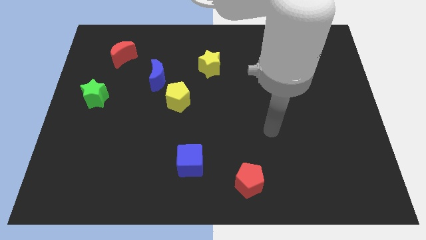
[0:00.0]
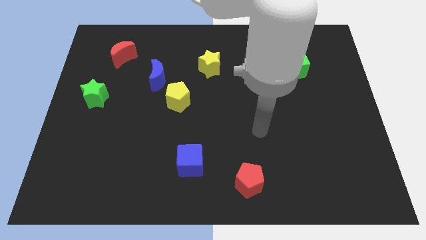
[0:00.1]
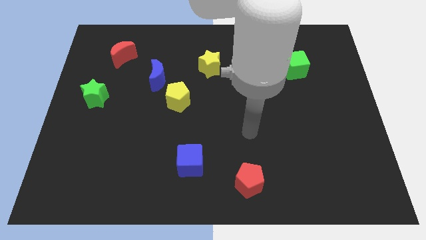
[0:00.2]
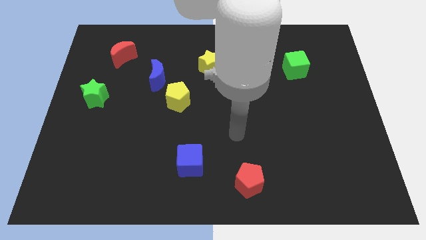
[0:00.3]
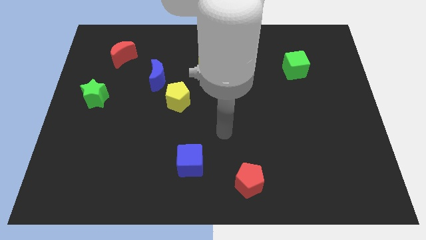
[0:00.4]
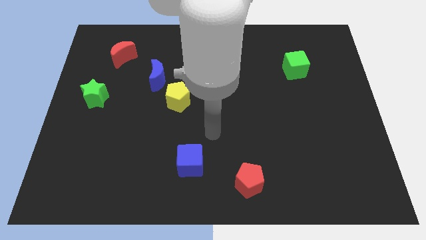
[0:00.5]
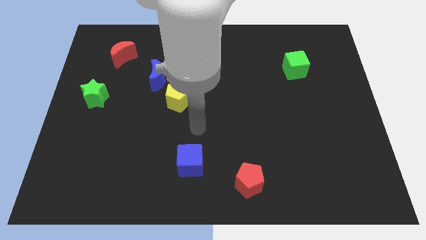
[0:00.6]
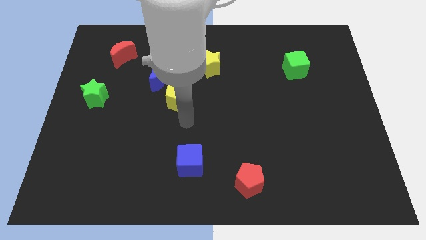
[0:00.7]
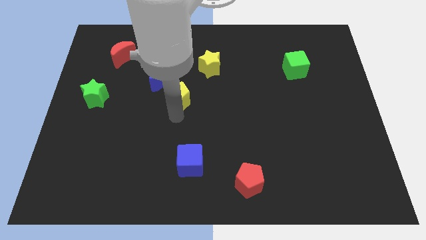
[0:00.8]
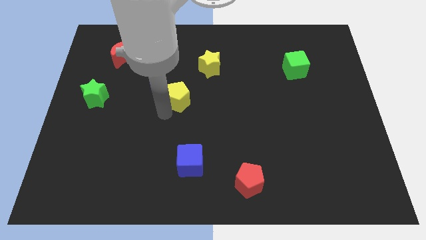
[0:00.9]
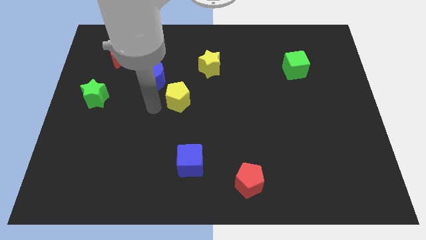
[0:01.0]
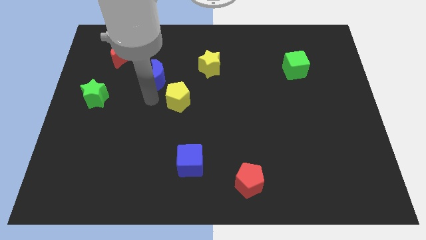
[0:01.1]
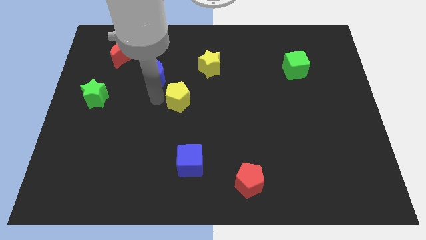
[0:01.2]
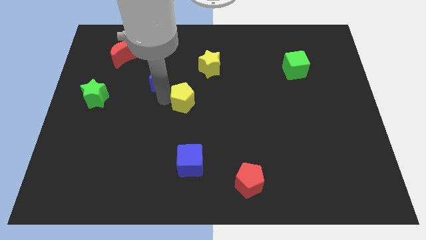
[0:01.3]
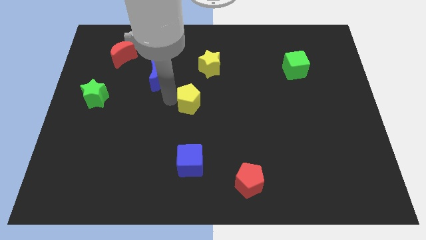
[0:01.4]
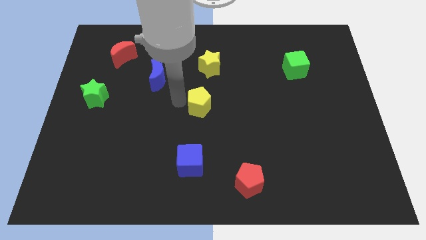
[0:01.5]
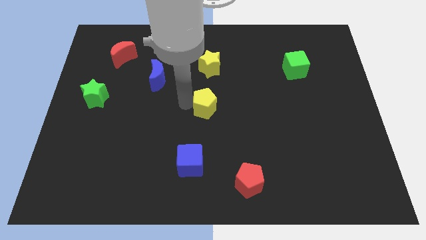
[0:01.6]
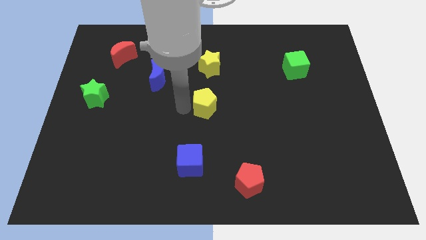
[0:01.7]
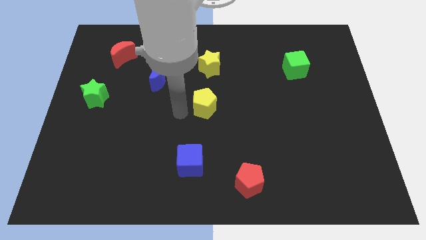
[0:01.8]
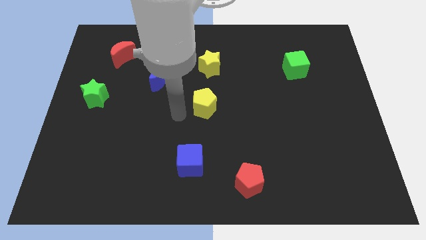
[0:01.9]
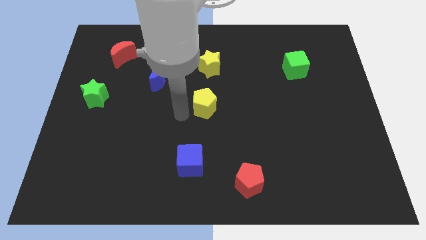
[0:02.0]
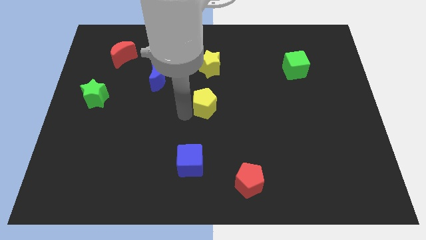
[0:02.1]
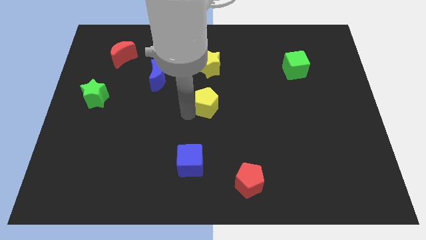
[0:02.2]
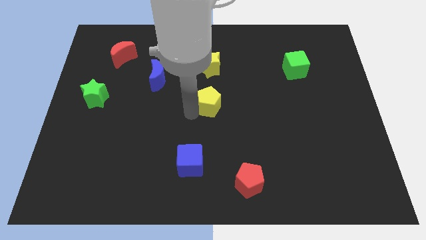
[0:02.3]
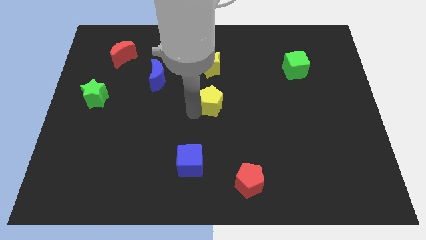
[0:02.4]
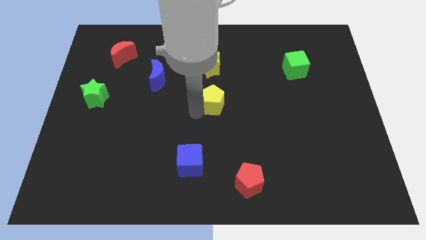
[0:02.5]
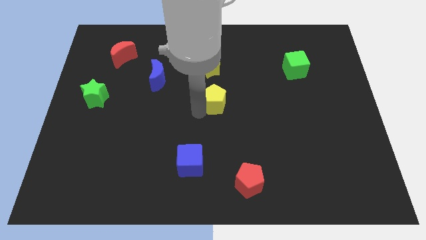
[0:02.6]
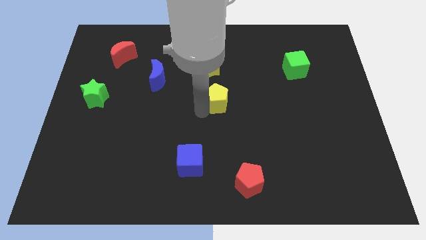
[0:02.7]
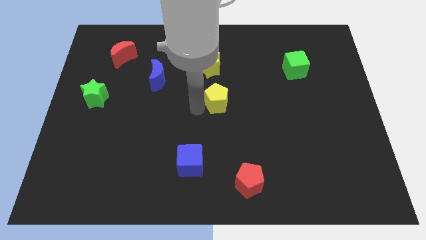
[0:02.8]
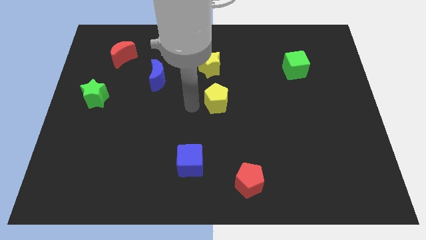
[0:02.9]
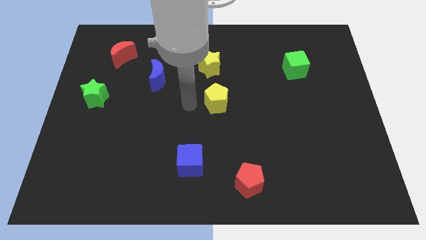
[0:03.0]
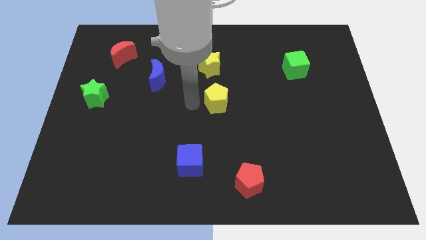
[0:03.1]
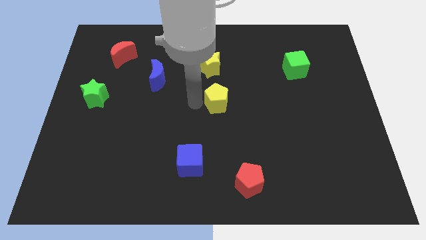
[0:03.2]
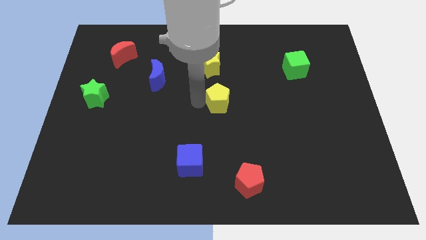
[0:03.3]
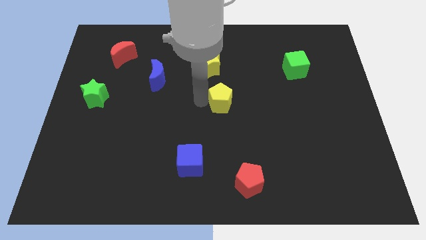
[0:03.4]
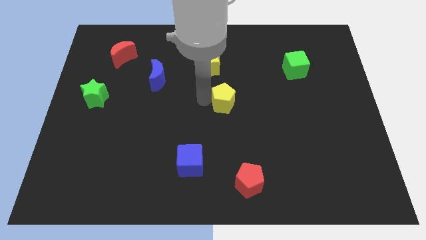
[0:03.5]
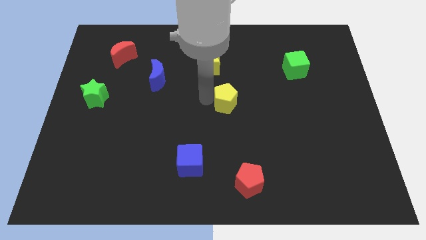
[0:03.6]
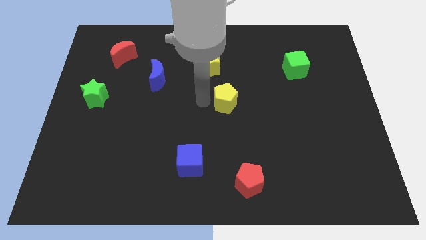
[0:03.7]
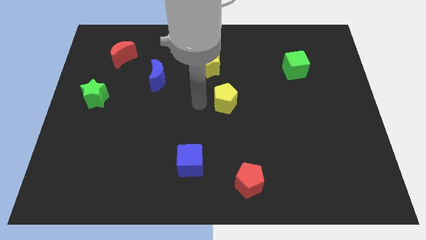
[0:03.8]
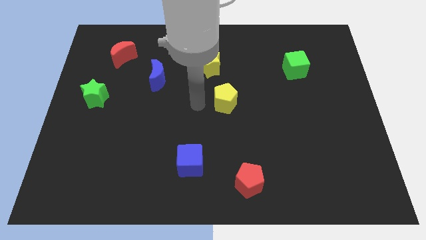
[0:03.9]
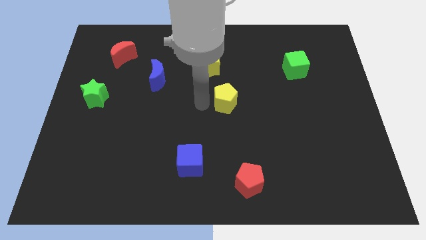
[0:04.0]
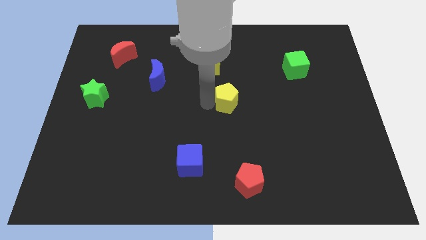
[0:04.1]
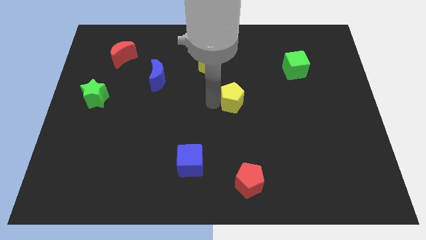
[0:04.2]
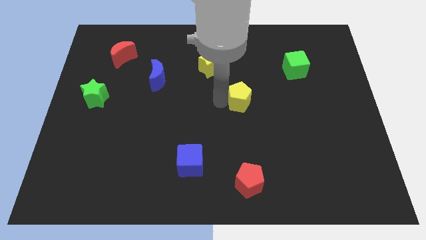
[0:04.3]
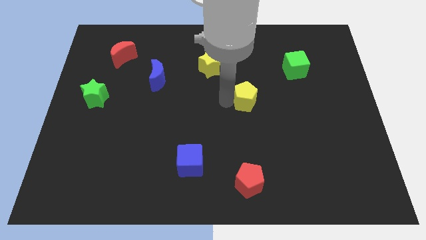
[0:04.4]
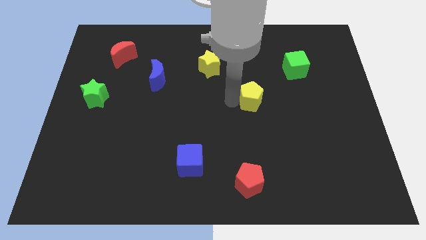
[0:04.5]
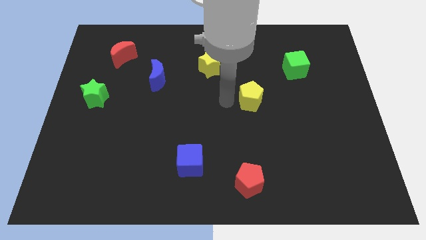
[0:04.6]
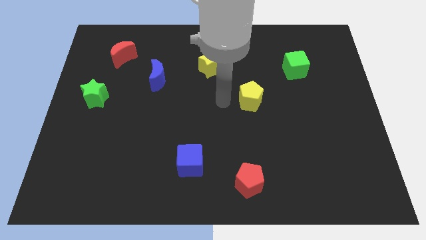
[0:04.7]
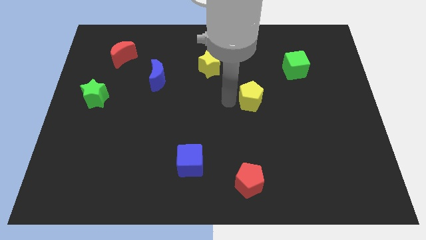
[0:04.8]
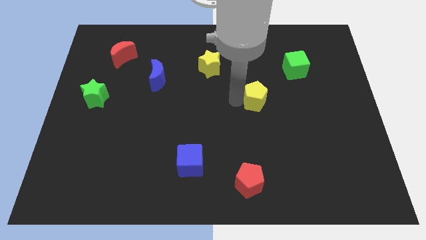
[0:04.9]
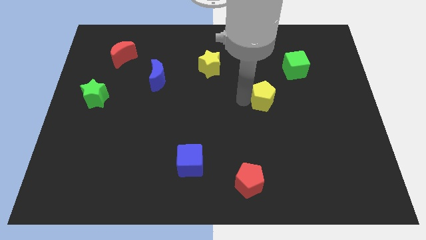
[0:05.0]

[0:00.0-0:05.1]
move the yellow pentagon right

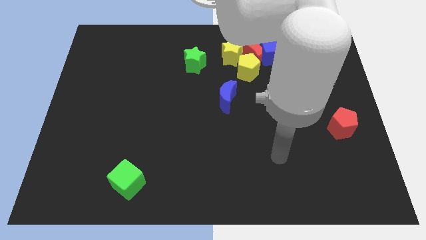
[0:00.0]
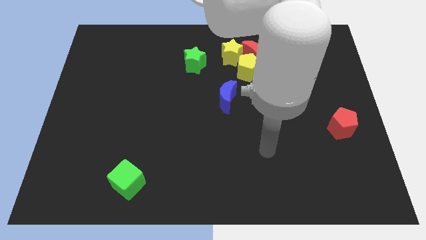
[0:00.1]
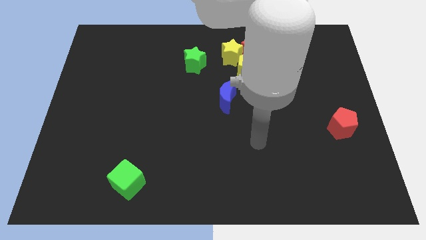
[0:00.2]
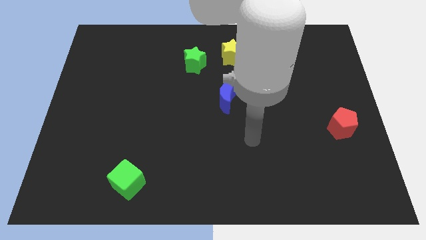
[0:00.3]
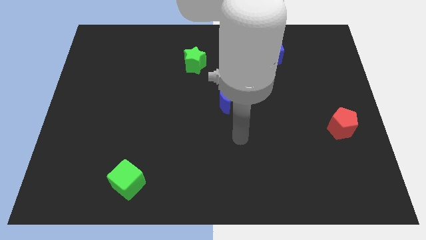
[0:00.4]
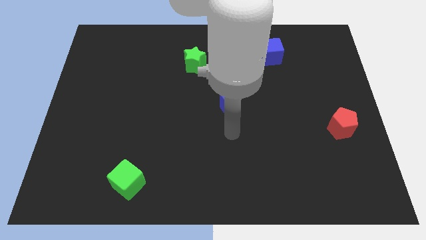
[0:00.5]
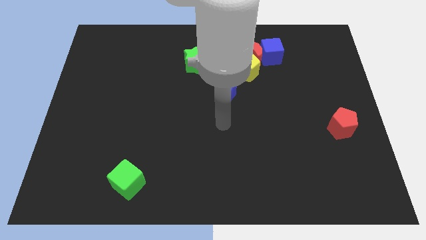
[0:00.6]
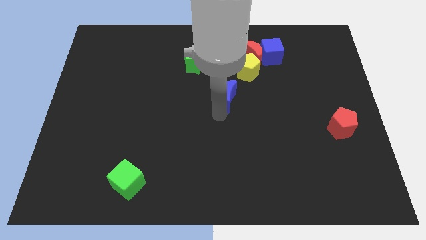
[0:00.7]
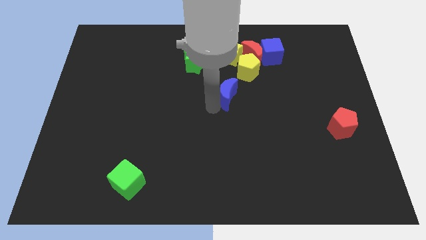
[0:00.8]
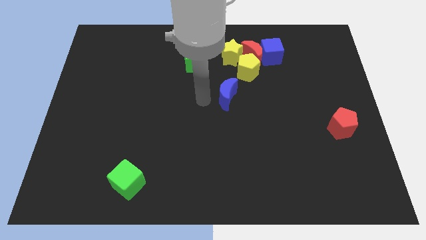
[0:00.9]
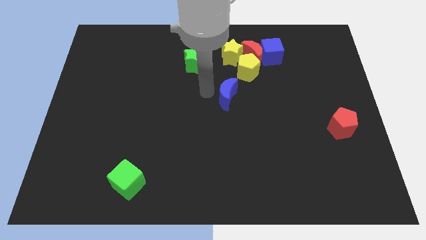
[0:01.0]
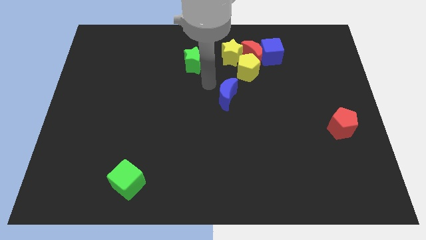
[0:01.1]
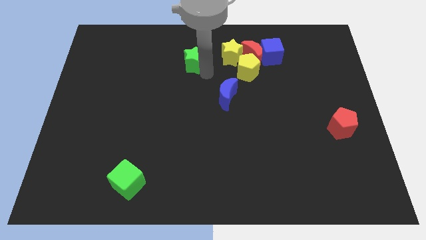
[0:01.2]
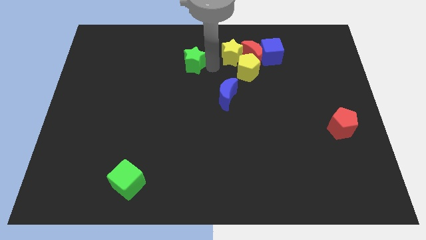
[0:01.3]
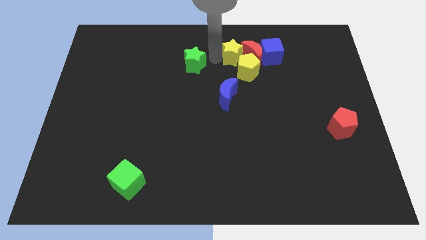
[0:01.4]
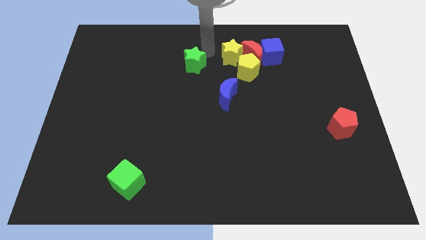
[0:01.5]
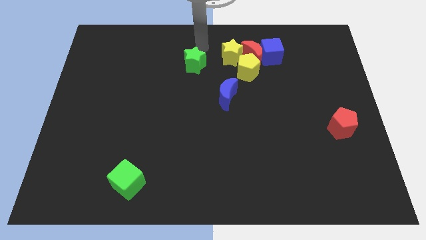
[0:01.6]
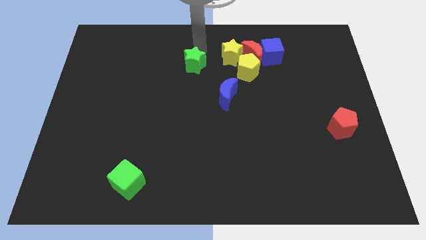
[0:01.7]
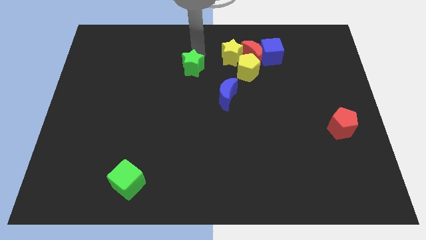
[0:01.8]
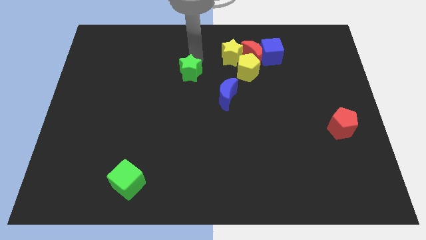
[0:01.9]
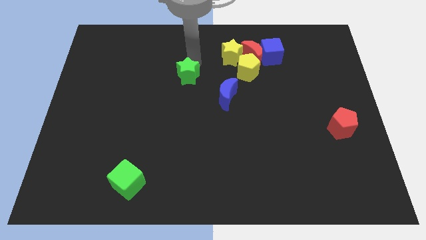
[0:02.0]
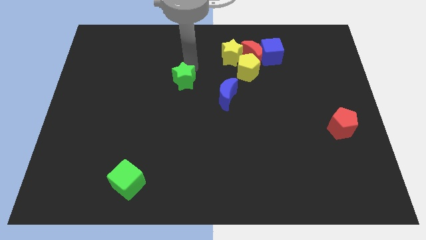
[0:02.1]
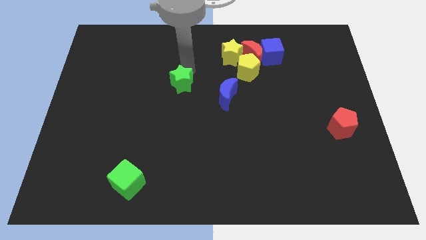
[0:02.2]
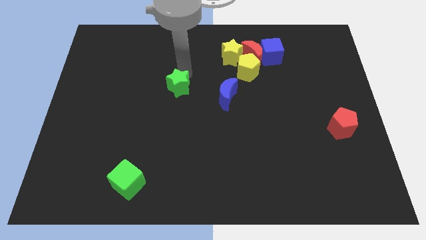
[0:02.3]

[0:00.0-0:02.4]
slightly slide the green star down

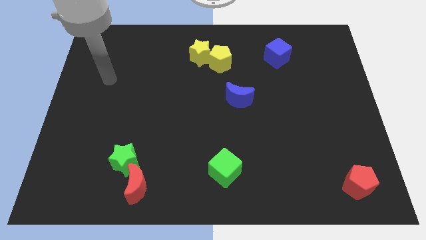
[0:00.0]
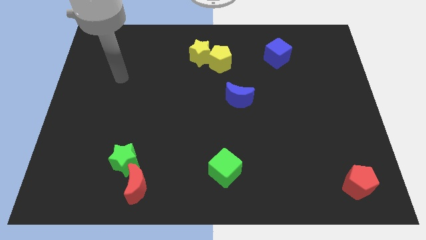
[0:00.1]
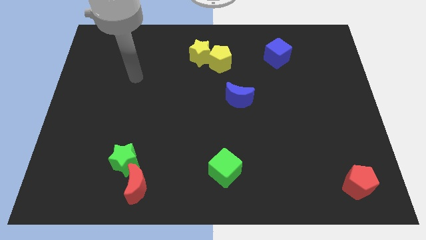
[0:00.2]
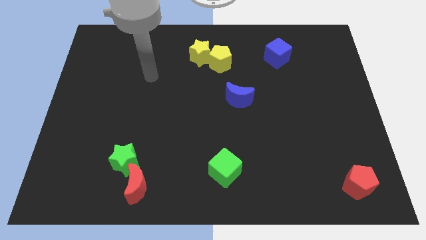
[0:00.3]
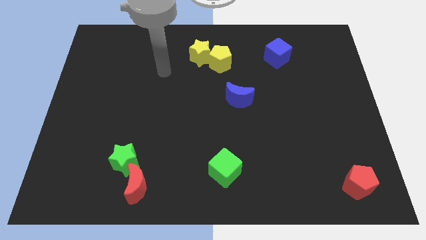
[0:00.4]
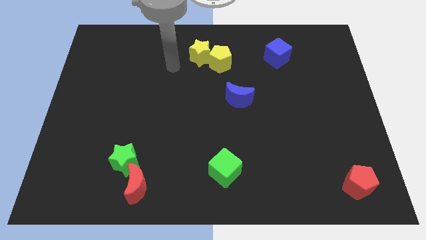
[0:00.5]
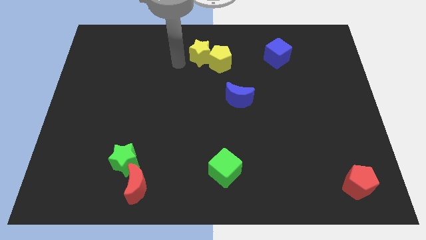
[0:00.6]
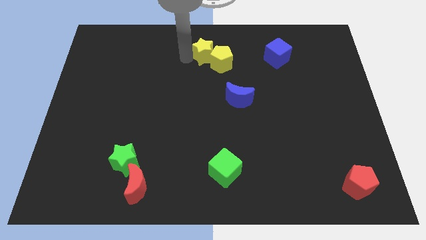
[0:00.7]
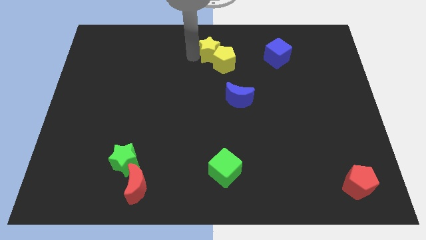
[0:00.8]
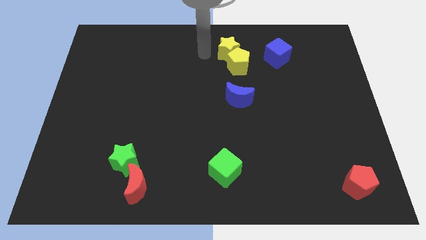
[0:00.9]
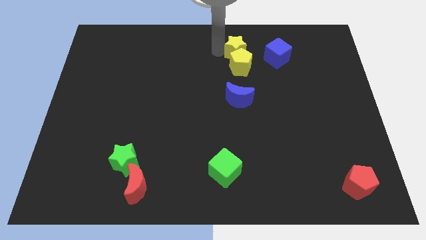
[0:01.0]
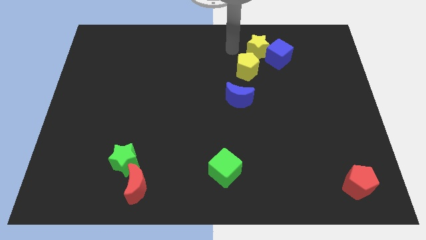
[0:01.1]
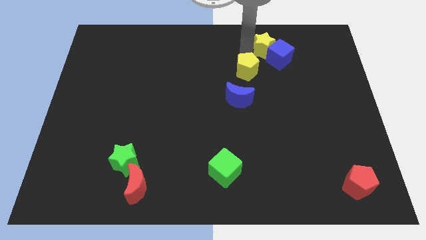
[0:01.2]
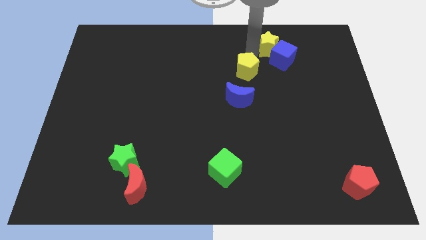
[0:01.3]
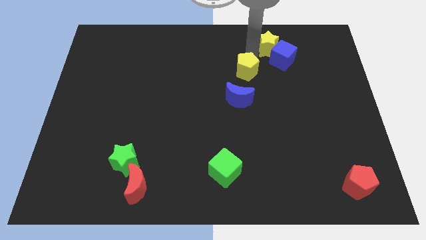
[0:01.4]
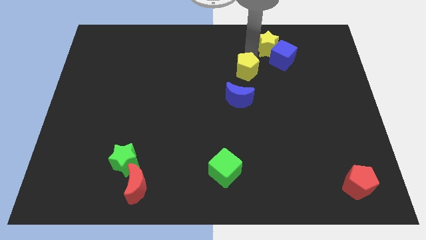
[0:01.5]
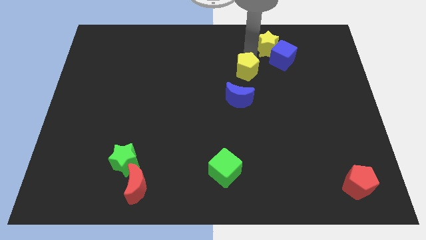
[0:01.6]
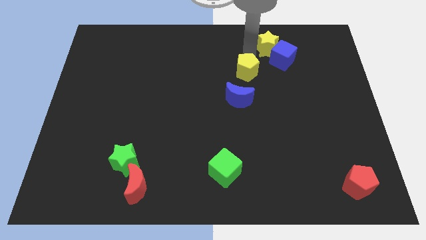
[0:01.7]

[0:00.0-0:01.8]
slide the yellow pentagon a bit downwards and to the right
